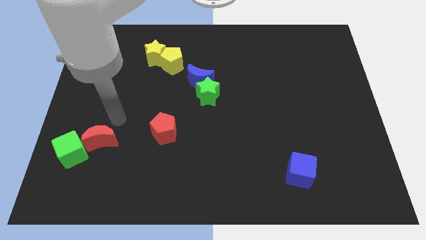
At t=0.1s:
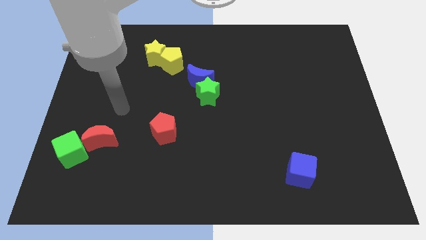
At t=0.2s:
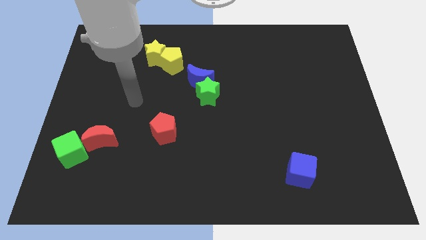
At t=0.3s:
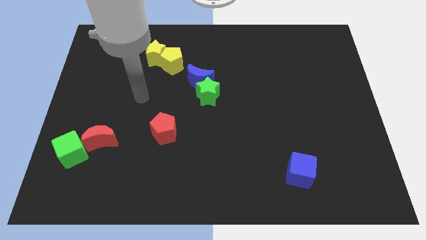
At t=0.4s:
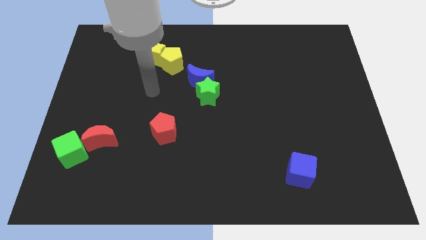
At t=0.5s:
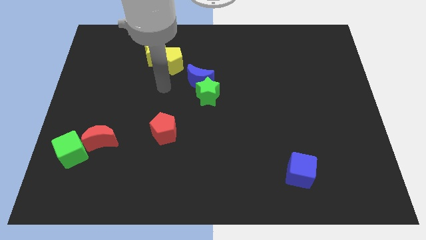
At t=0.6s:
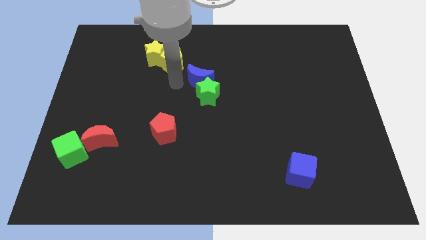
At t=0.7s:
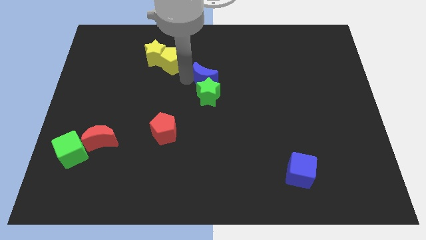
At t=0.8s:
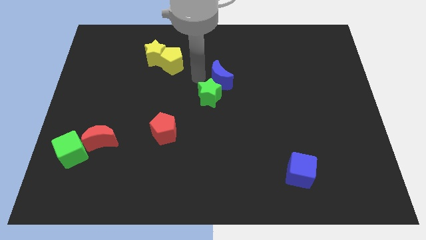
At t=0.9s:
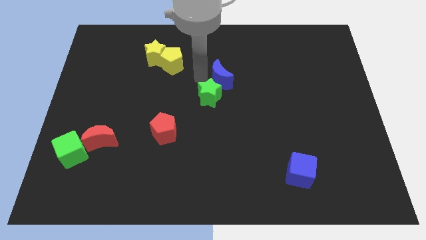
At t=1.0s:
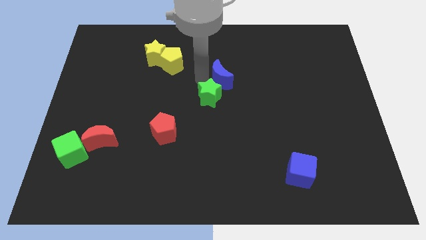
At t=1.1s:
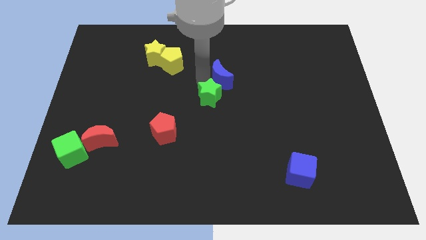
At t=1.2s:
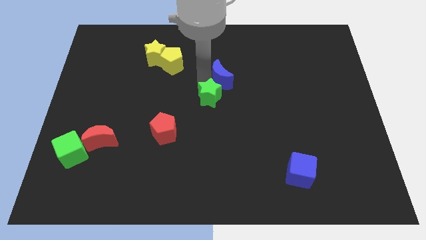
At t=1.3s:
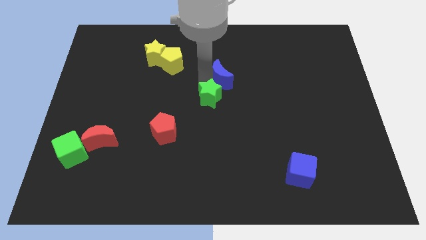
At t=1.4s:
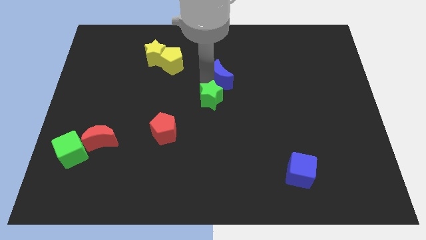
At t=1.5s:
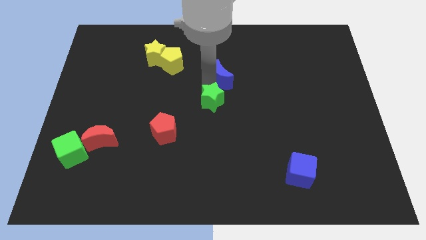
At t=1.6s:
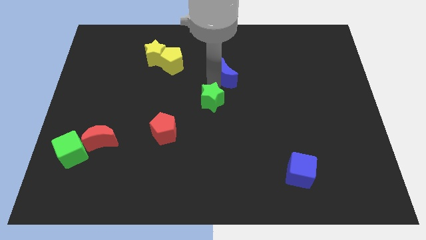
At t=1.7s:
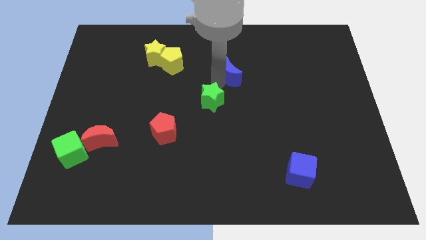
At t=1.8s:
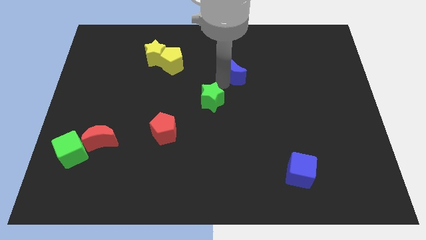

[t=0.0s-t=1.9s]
separate the green star from the blue moon

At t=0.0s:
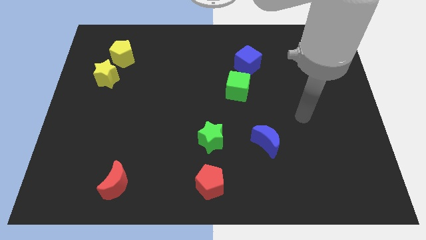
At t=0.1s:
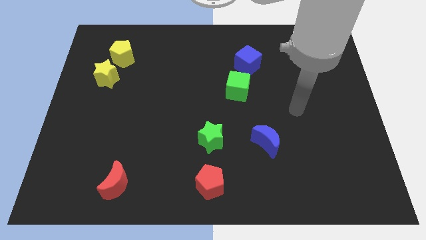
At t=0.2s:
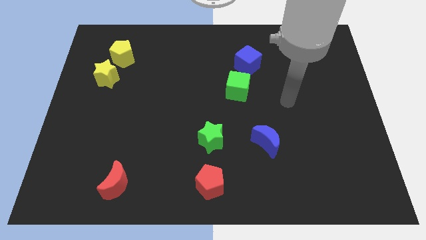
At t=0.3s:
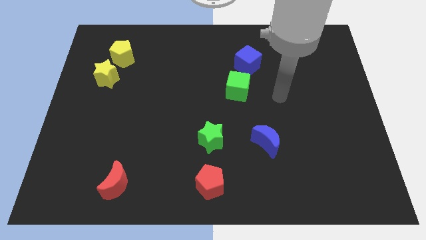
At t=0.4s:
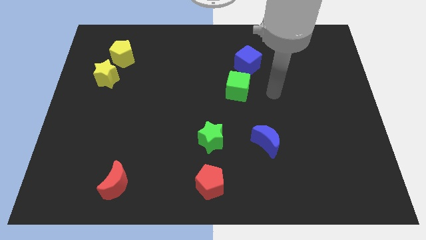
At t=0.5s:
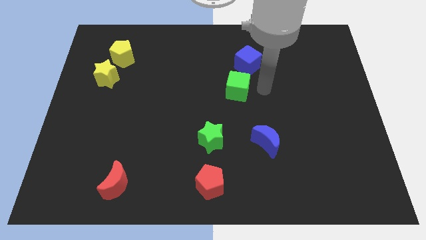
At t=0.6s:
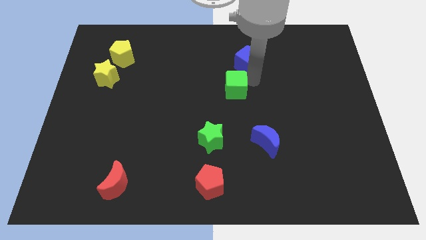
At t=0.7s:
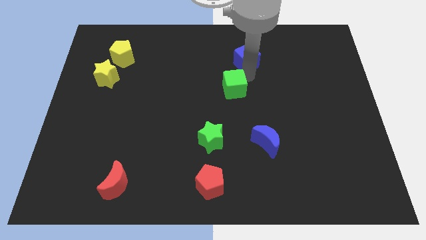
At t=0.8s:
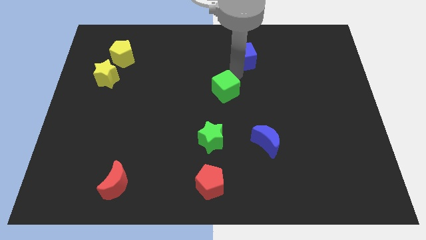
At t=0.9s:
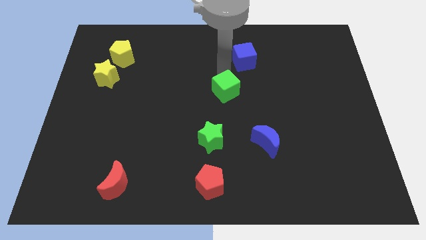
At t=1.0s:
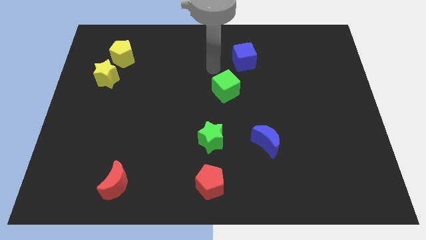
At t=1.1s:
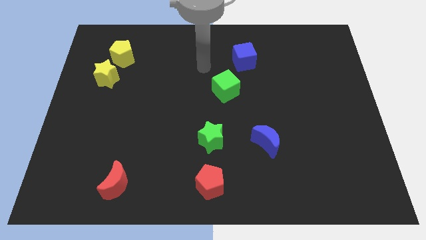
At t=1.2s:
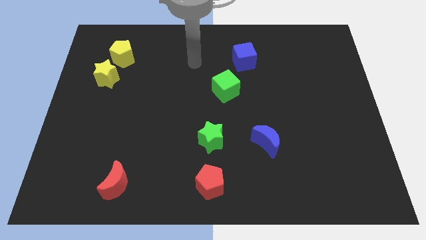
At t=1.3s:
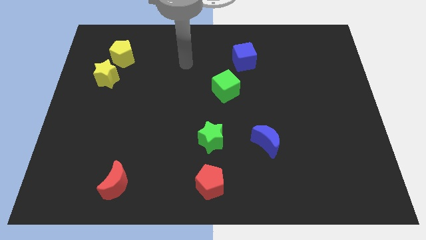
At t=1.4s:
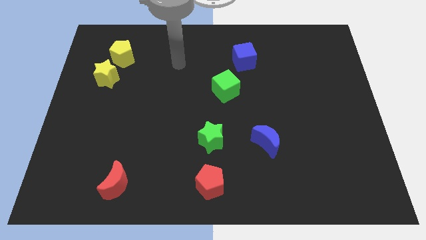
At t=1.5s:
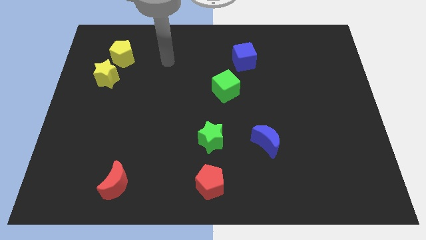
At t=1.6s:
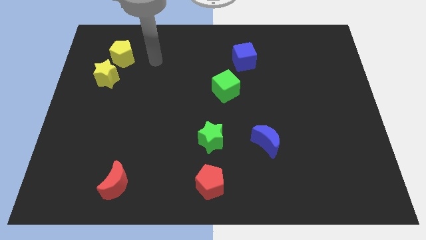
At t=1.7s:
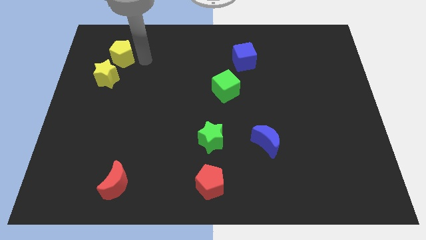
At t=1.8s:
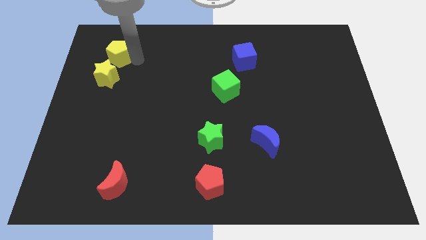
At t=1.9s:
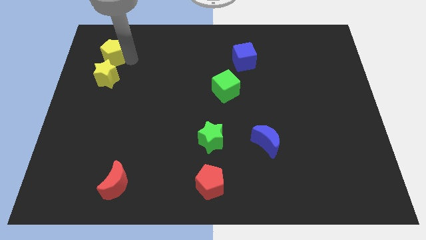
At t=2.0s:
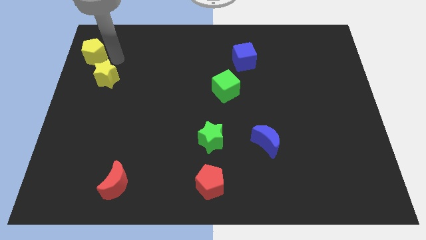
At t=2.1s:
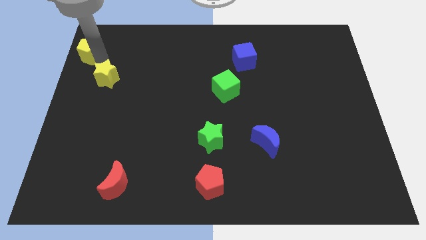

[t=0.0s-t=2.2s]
move the yellow star away from the yellow pentagon

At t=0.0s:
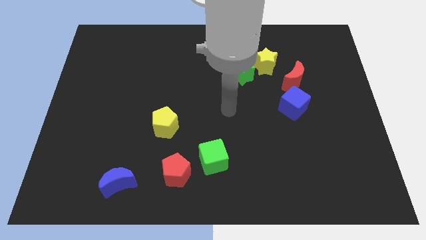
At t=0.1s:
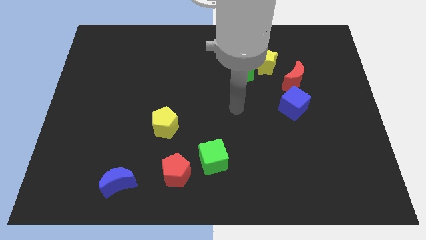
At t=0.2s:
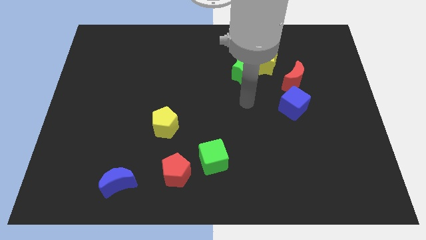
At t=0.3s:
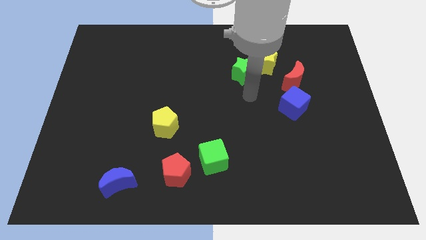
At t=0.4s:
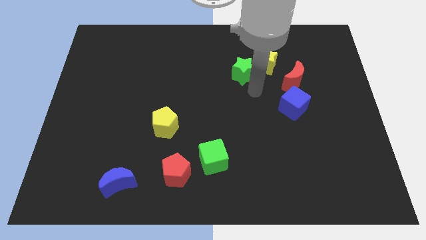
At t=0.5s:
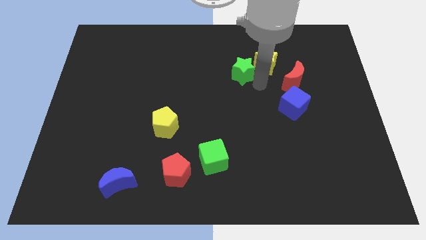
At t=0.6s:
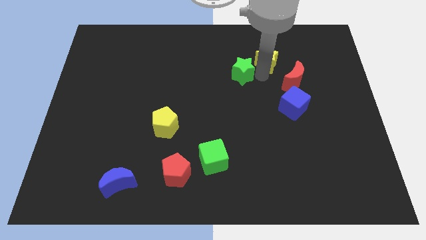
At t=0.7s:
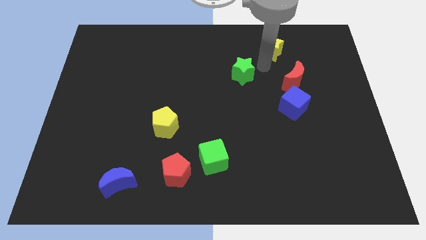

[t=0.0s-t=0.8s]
separate the green star from the yellow star

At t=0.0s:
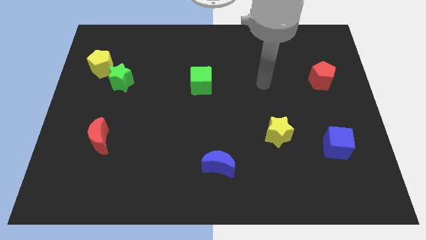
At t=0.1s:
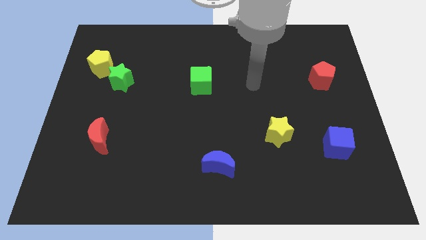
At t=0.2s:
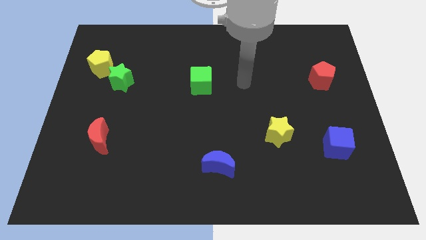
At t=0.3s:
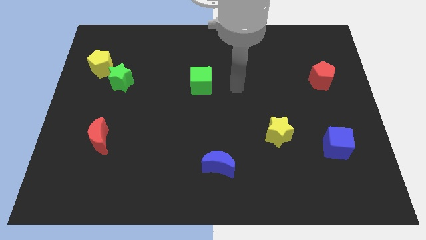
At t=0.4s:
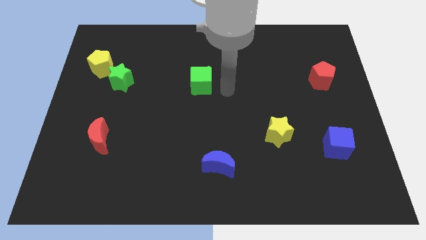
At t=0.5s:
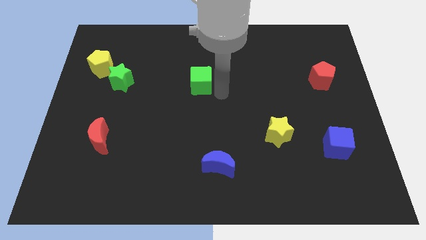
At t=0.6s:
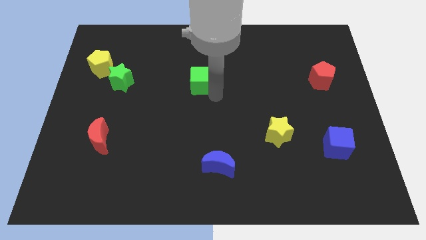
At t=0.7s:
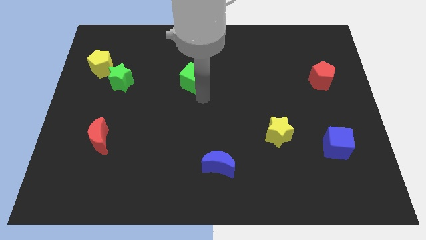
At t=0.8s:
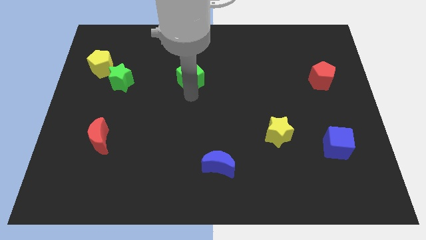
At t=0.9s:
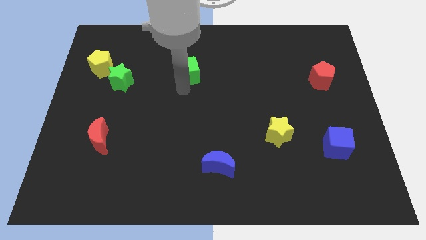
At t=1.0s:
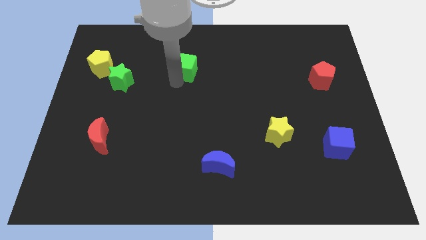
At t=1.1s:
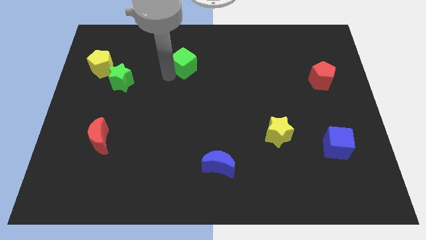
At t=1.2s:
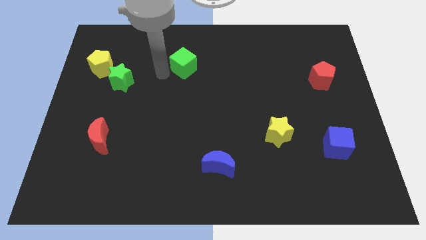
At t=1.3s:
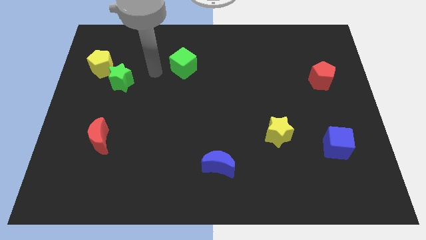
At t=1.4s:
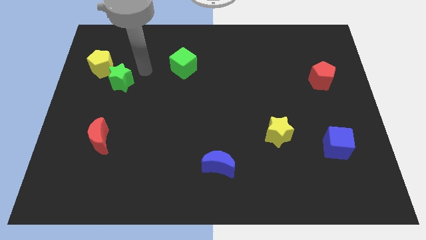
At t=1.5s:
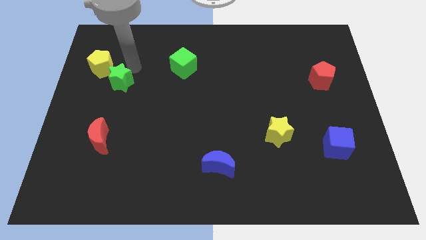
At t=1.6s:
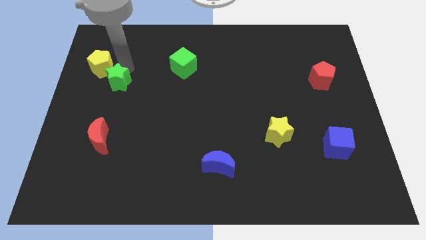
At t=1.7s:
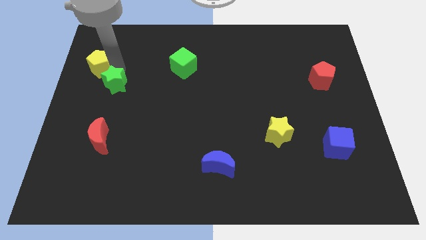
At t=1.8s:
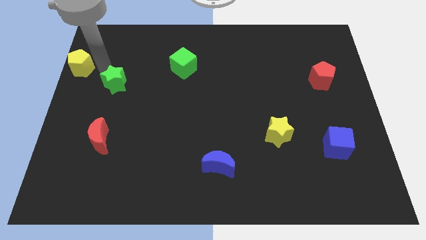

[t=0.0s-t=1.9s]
pull the green star apart from the yellow pentagon

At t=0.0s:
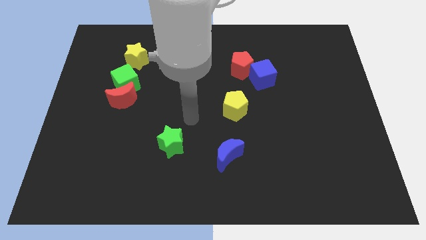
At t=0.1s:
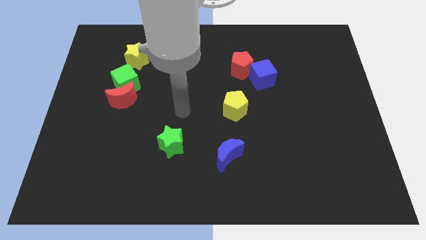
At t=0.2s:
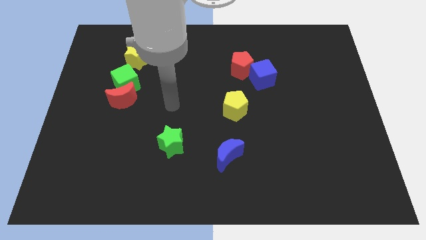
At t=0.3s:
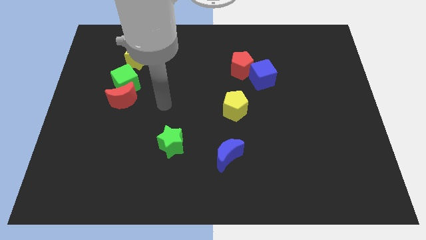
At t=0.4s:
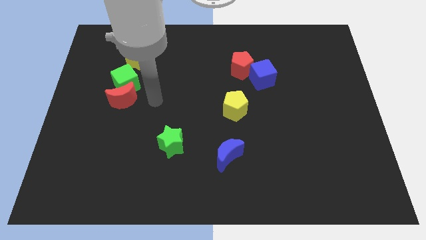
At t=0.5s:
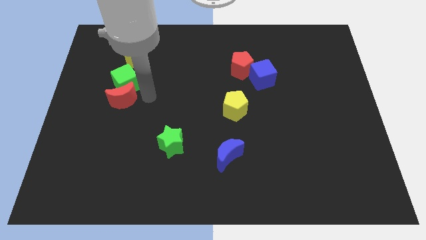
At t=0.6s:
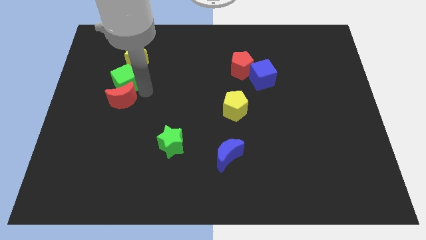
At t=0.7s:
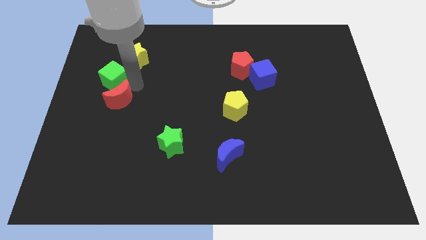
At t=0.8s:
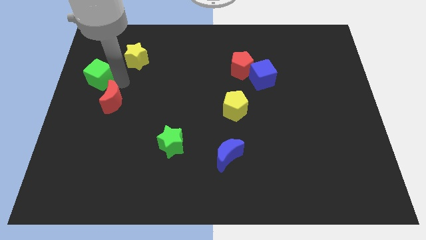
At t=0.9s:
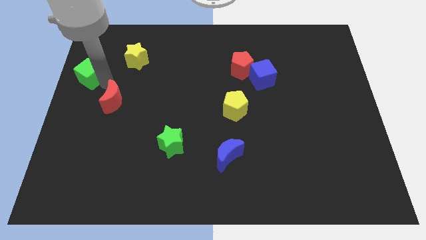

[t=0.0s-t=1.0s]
pull the red moon apart from the green cube

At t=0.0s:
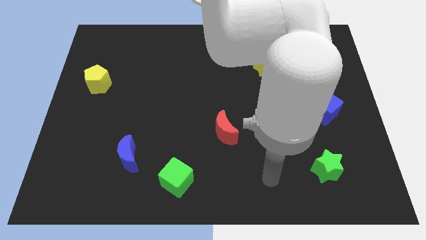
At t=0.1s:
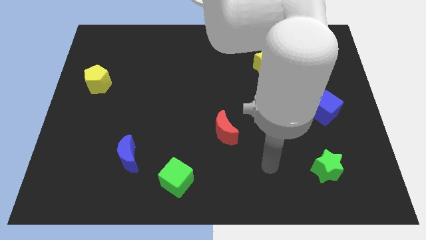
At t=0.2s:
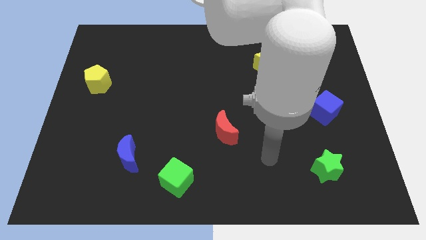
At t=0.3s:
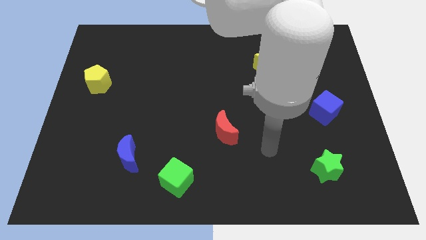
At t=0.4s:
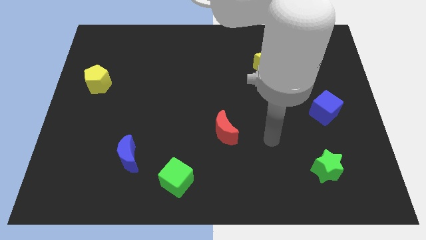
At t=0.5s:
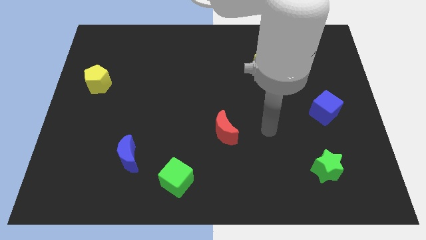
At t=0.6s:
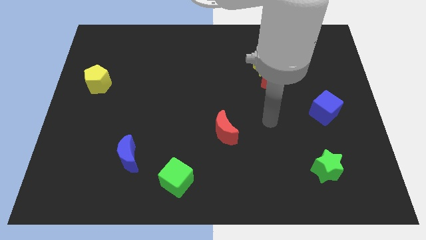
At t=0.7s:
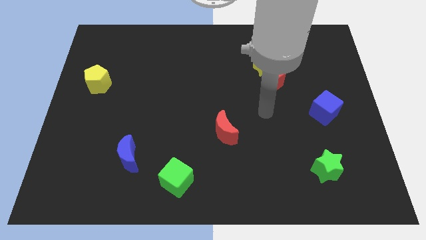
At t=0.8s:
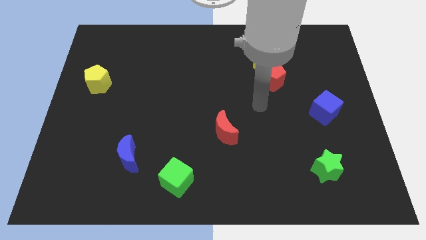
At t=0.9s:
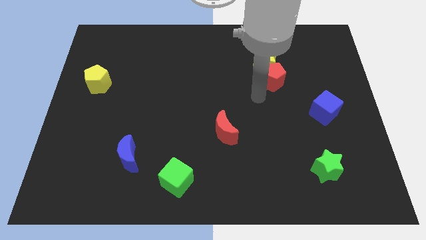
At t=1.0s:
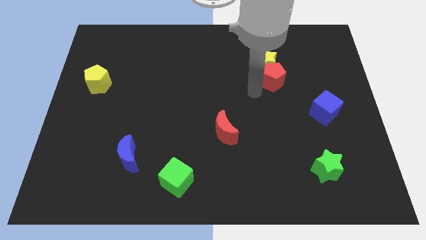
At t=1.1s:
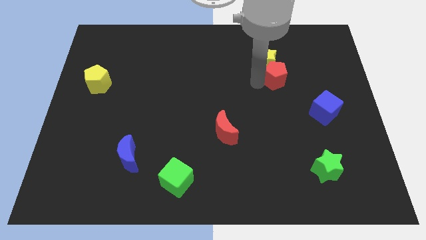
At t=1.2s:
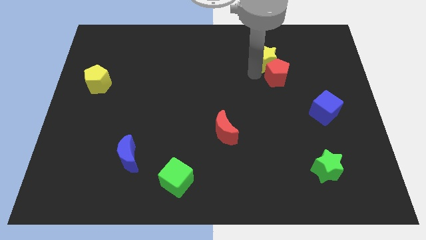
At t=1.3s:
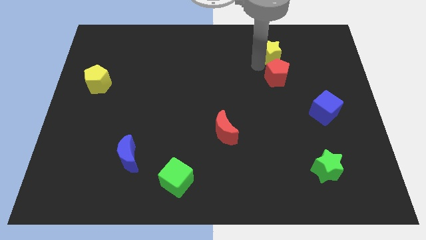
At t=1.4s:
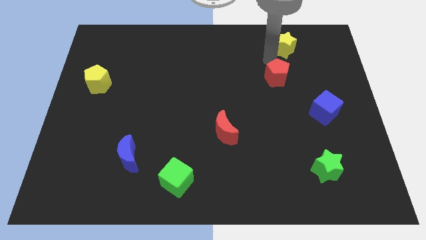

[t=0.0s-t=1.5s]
move the red pentagon away from the yellow star
